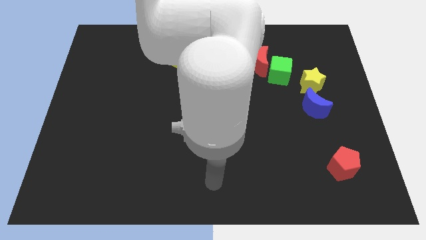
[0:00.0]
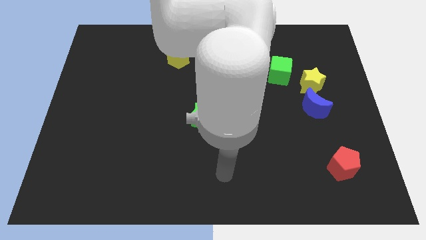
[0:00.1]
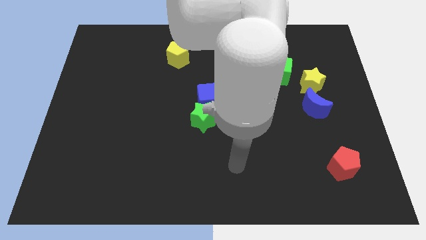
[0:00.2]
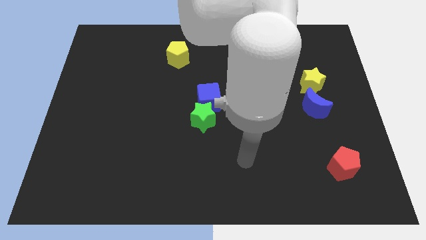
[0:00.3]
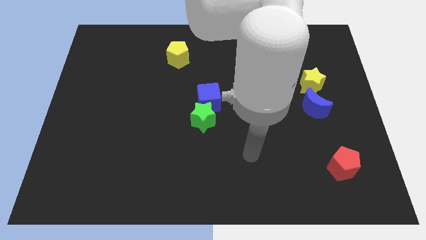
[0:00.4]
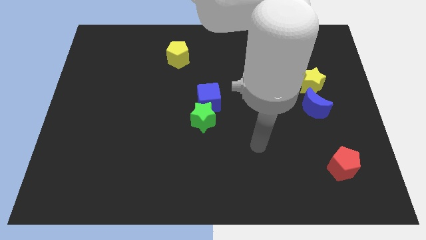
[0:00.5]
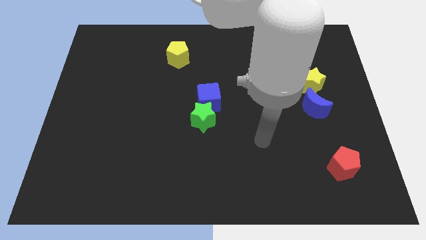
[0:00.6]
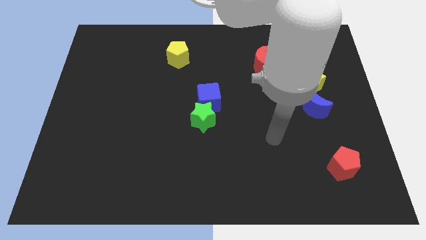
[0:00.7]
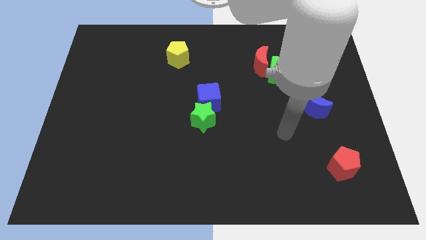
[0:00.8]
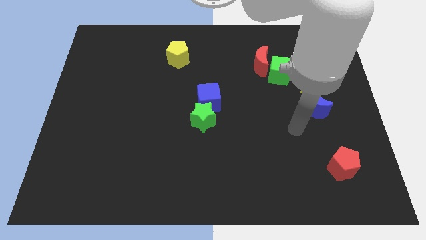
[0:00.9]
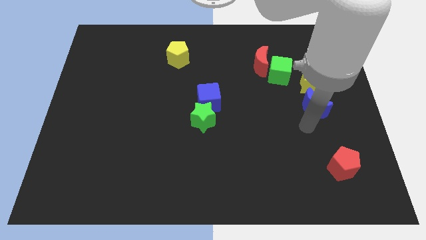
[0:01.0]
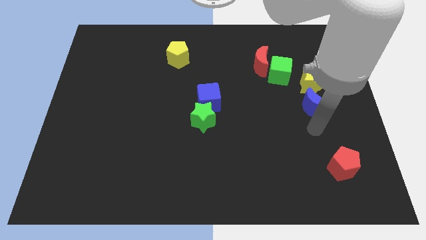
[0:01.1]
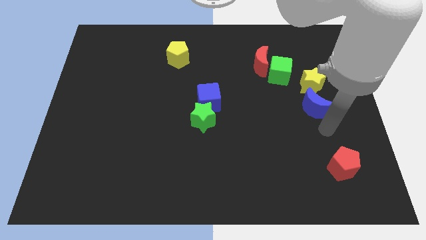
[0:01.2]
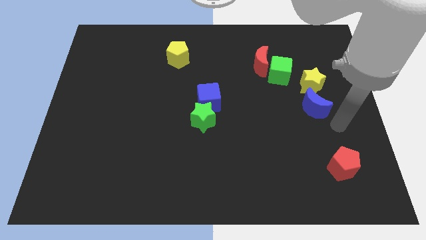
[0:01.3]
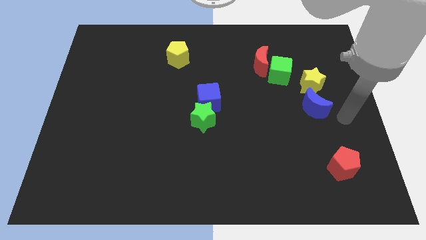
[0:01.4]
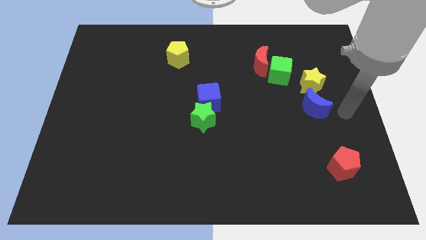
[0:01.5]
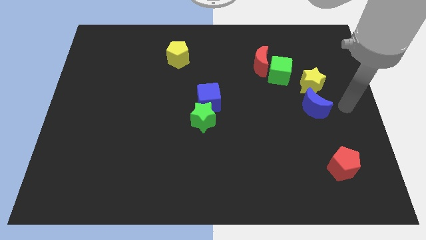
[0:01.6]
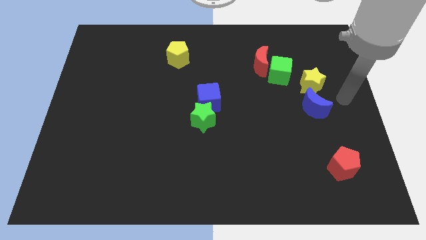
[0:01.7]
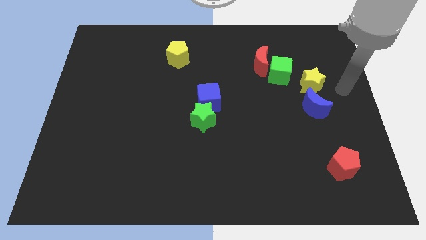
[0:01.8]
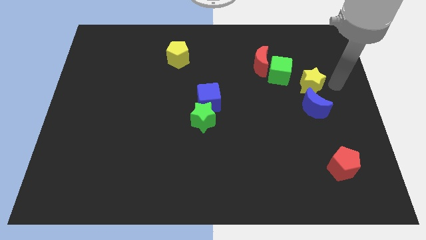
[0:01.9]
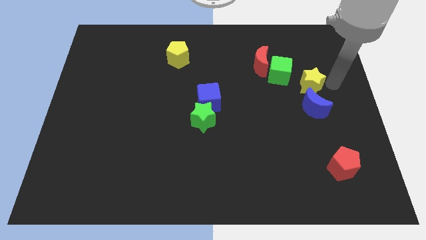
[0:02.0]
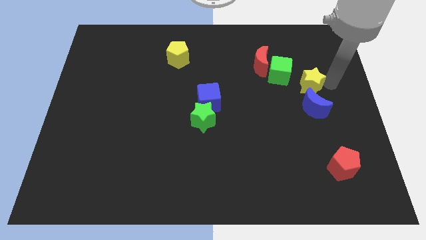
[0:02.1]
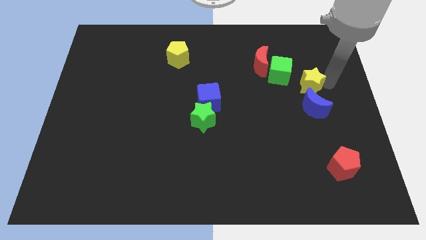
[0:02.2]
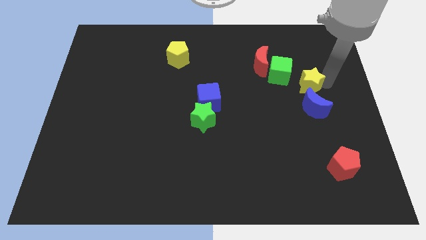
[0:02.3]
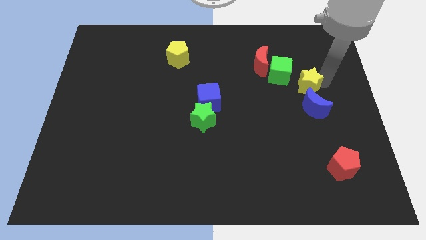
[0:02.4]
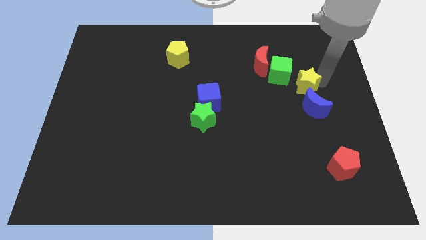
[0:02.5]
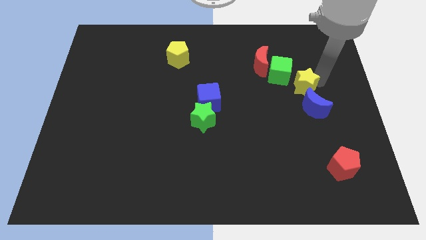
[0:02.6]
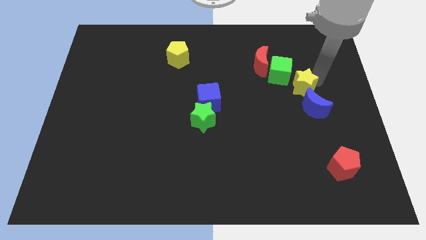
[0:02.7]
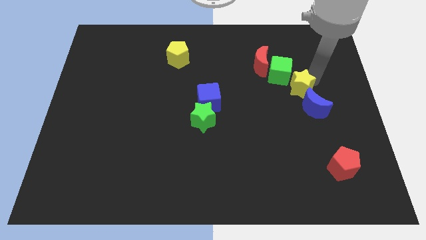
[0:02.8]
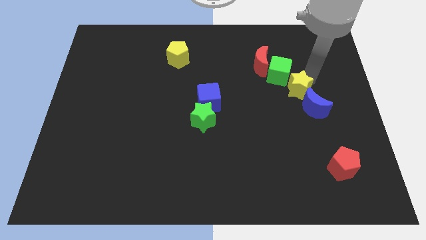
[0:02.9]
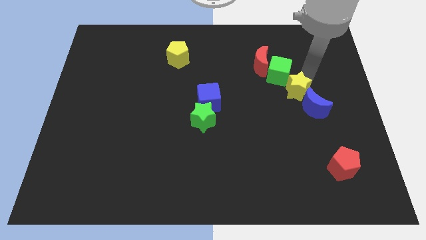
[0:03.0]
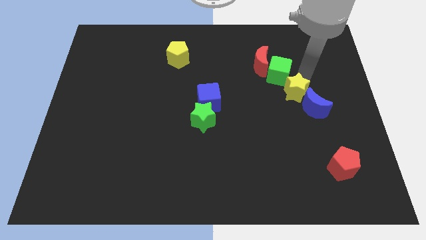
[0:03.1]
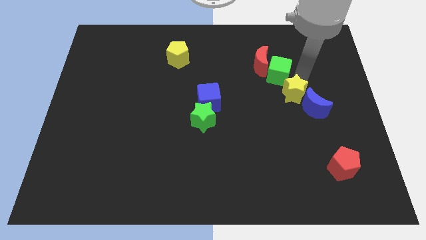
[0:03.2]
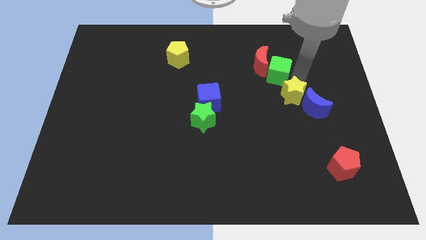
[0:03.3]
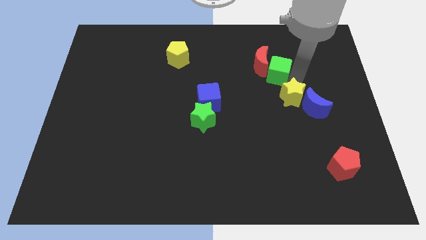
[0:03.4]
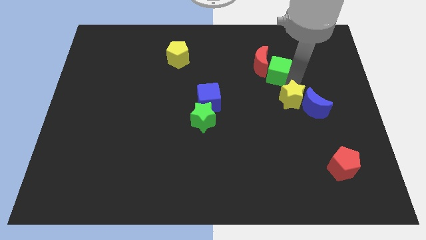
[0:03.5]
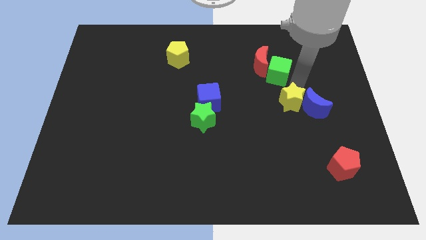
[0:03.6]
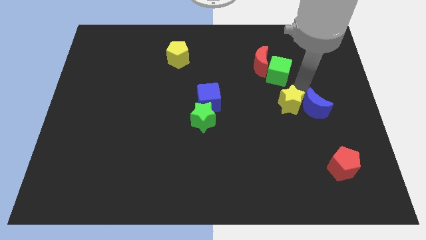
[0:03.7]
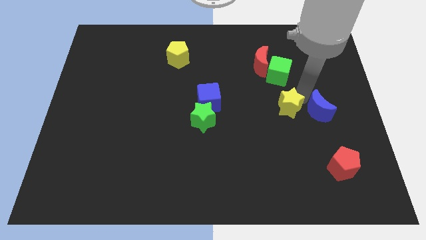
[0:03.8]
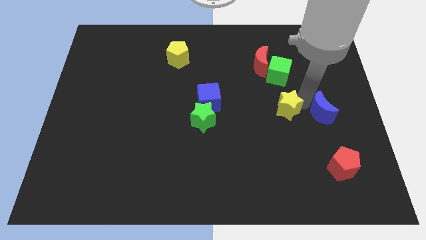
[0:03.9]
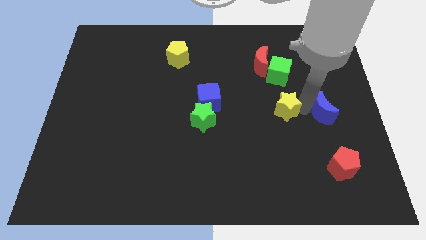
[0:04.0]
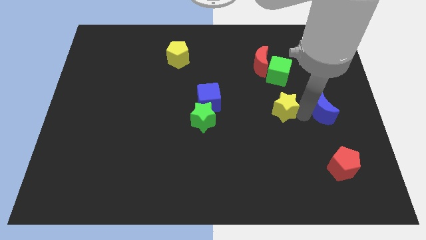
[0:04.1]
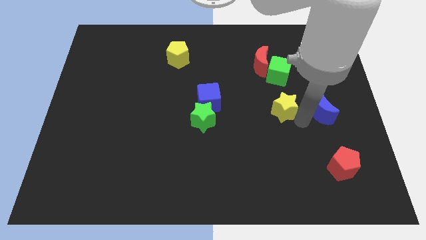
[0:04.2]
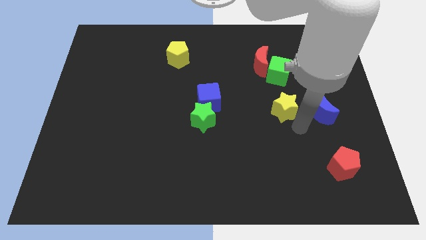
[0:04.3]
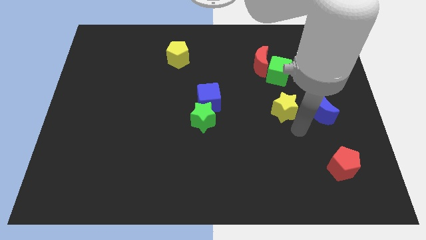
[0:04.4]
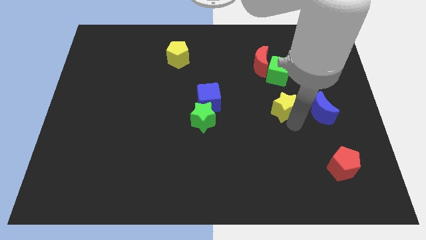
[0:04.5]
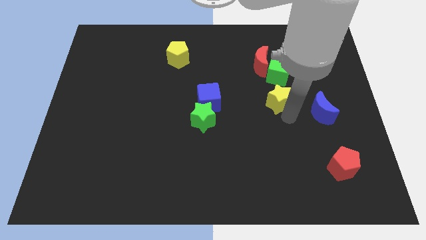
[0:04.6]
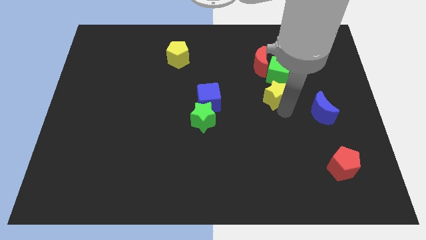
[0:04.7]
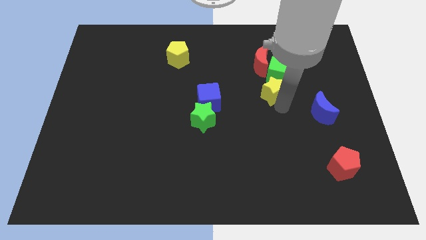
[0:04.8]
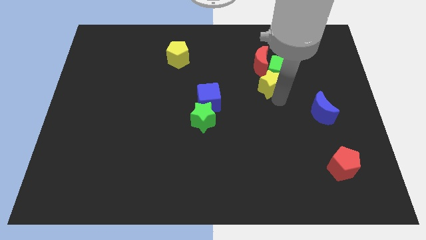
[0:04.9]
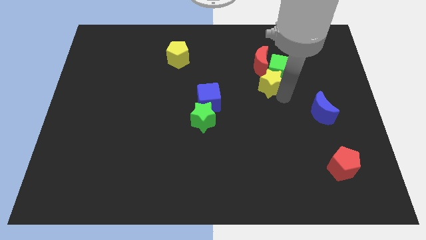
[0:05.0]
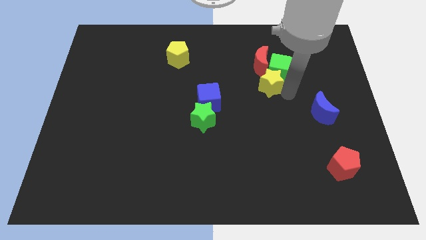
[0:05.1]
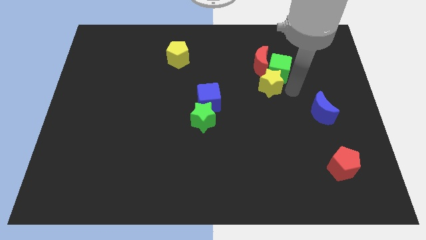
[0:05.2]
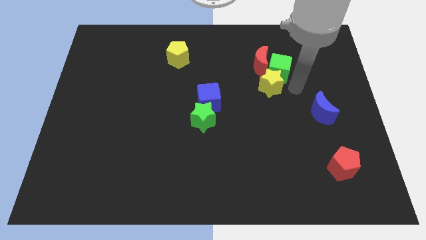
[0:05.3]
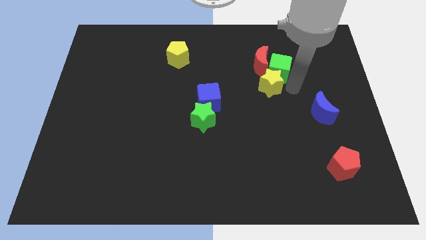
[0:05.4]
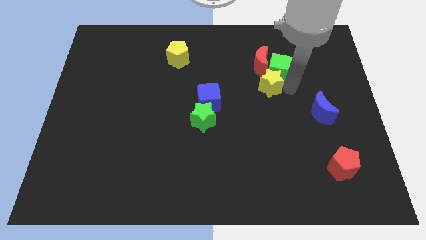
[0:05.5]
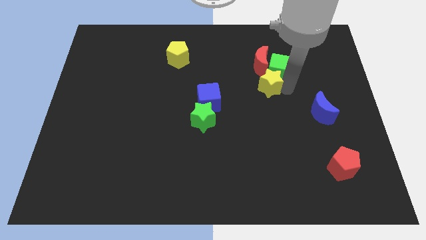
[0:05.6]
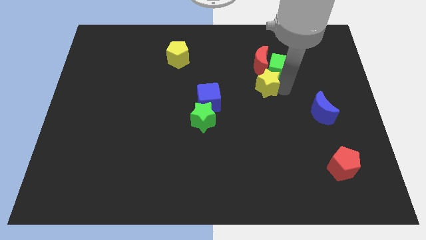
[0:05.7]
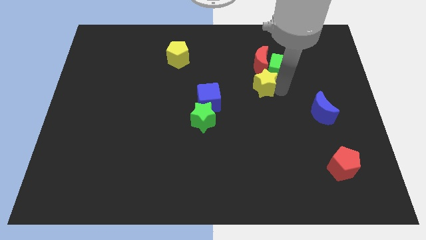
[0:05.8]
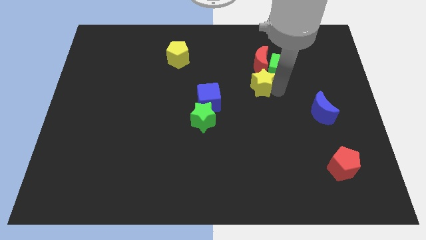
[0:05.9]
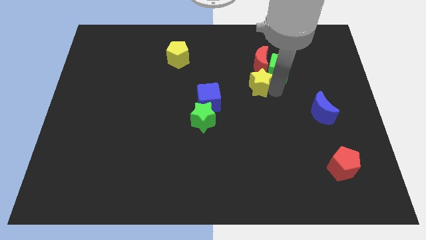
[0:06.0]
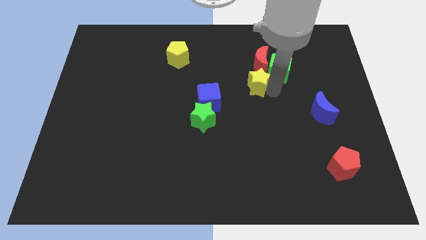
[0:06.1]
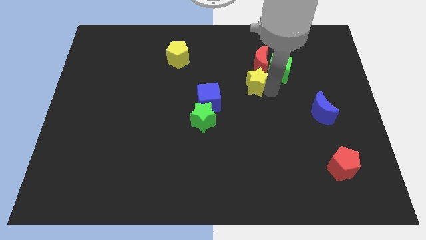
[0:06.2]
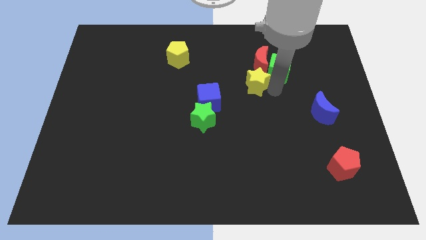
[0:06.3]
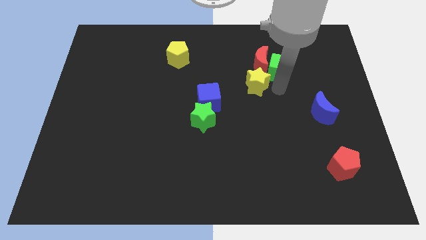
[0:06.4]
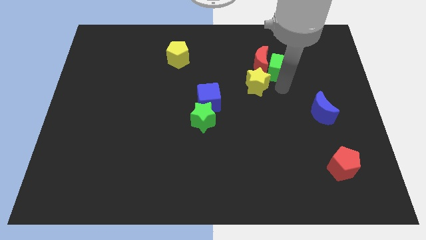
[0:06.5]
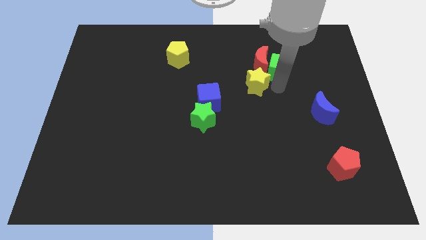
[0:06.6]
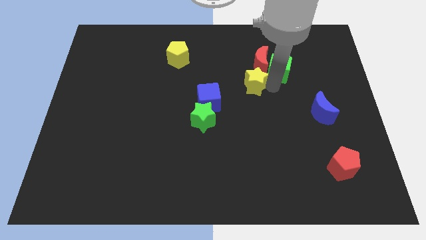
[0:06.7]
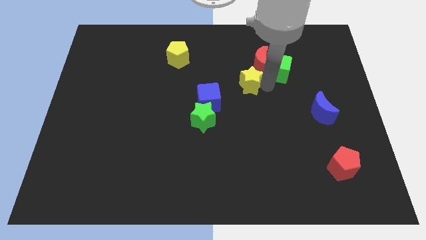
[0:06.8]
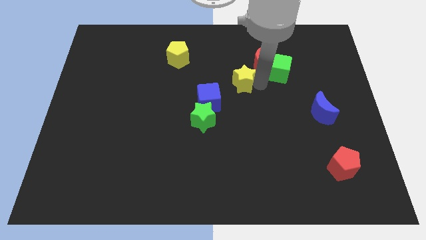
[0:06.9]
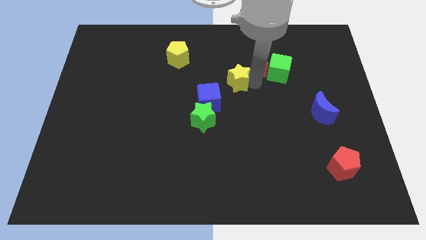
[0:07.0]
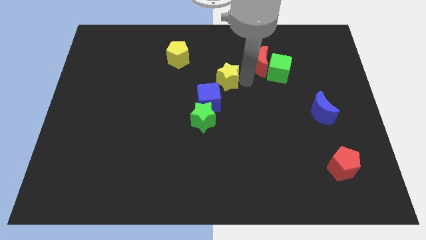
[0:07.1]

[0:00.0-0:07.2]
slide the yellow star left

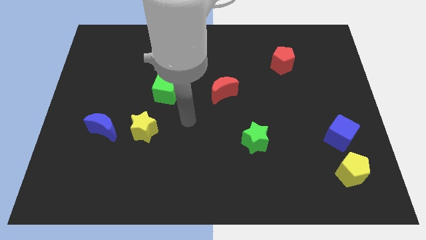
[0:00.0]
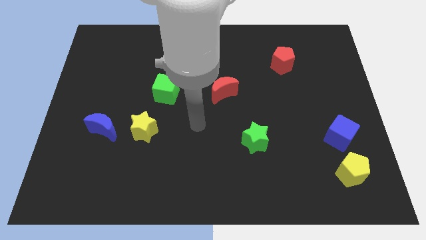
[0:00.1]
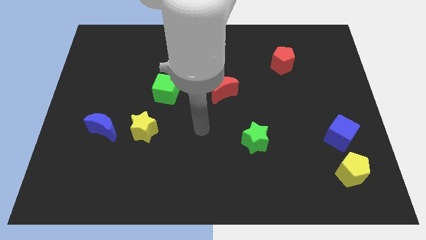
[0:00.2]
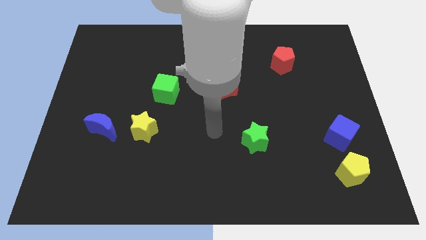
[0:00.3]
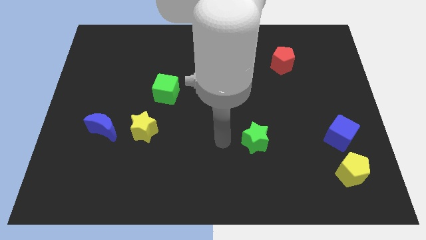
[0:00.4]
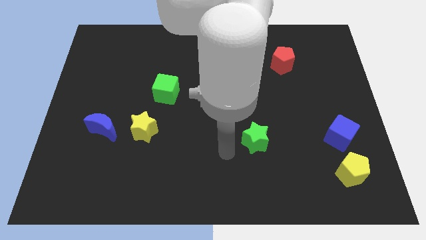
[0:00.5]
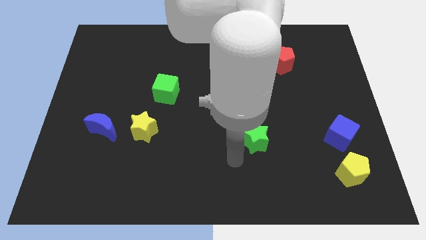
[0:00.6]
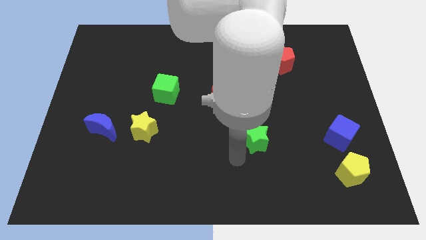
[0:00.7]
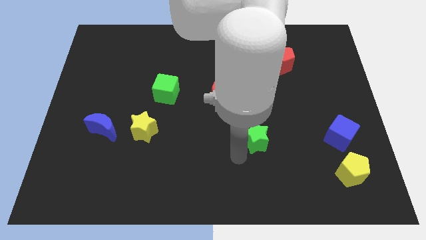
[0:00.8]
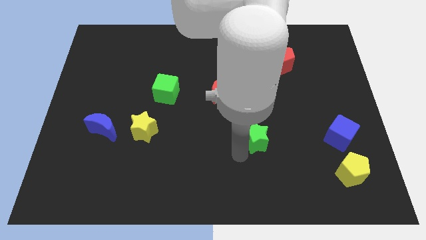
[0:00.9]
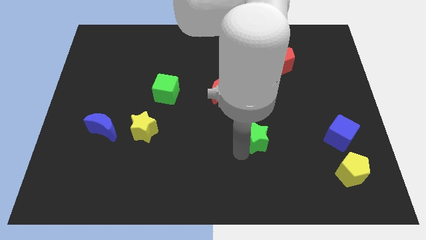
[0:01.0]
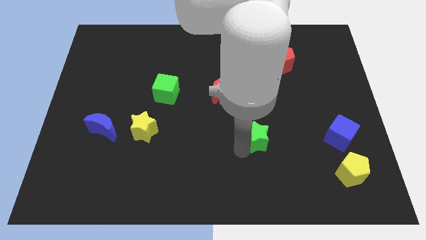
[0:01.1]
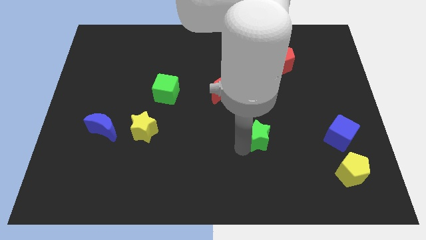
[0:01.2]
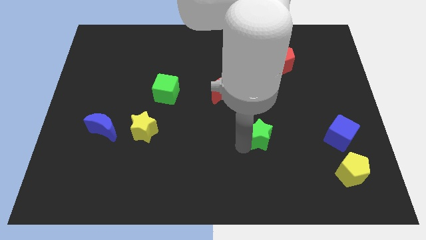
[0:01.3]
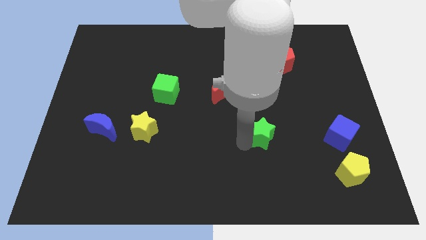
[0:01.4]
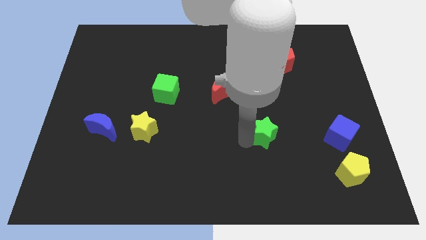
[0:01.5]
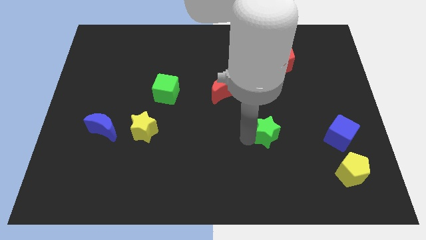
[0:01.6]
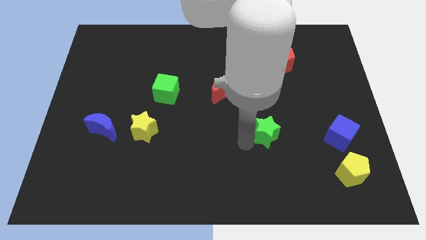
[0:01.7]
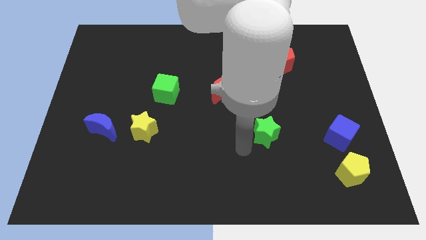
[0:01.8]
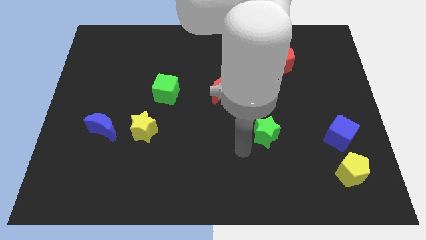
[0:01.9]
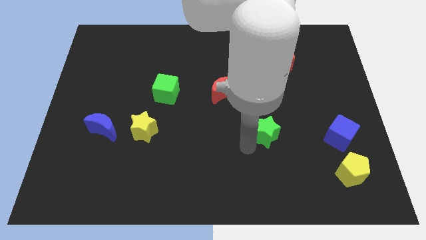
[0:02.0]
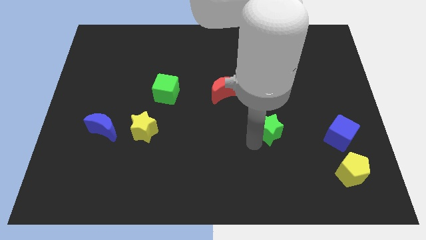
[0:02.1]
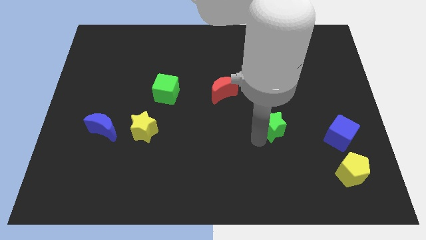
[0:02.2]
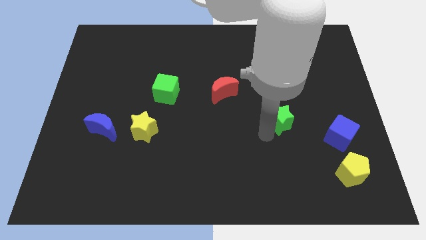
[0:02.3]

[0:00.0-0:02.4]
move the green star upwards and right a little bit
